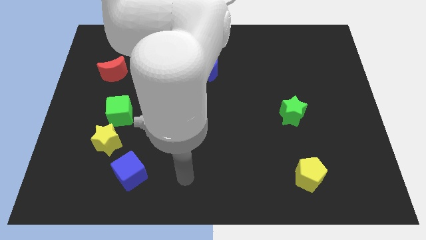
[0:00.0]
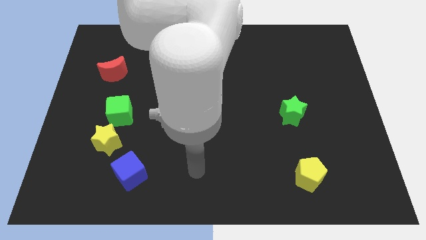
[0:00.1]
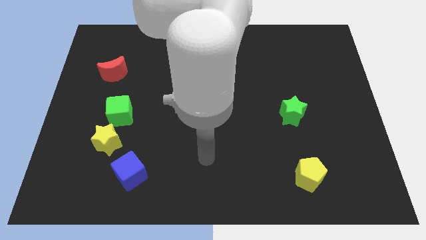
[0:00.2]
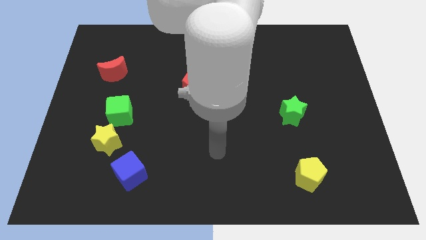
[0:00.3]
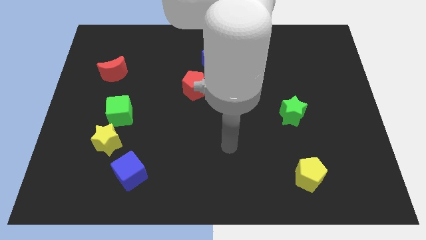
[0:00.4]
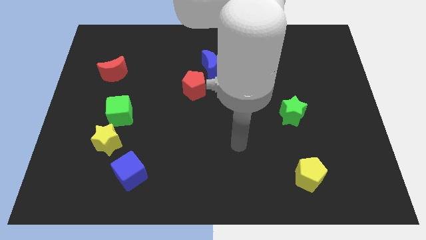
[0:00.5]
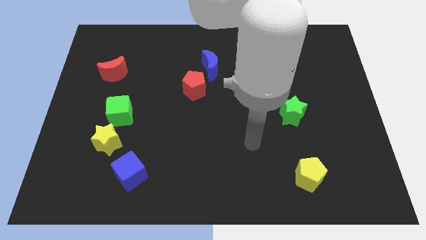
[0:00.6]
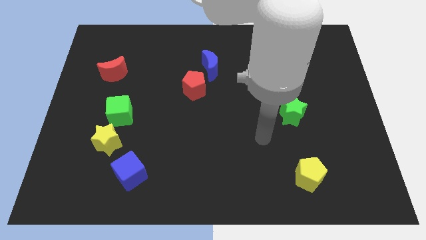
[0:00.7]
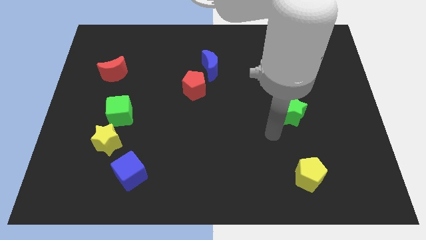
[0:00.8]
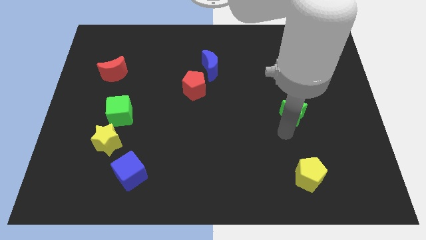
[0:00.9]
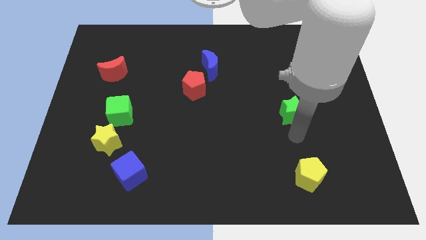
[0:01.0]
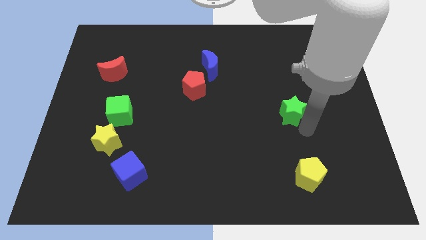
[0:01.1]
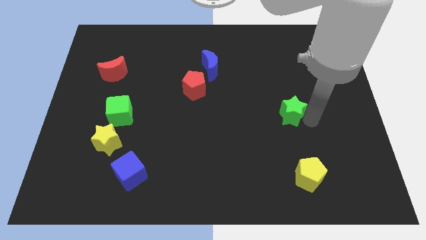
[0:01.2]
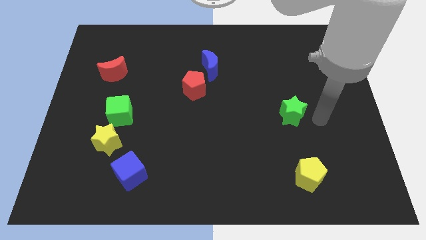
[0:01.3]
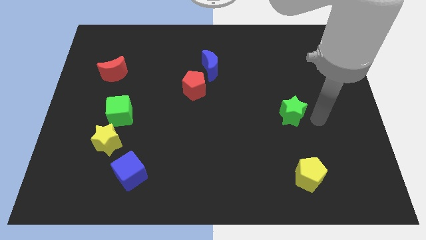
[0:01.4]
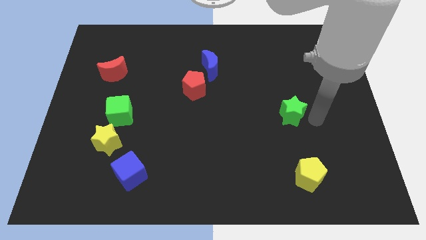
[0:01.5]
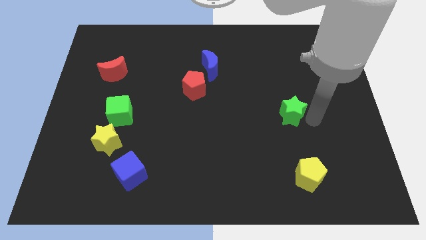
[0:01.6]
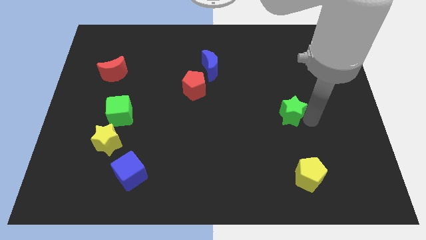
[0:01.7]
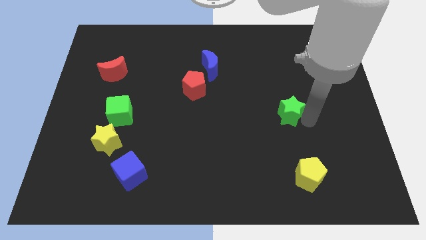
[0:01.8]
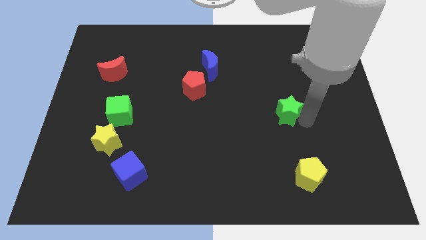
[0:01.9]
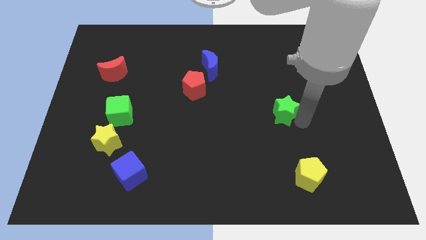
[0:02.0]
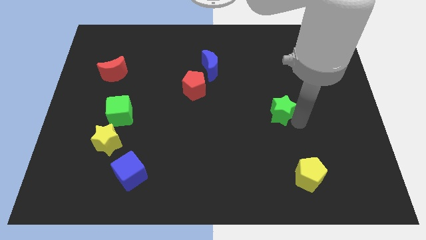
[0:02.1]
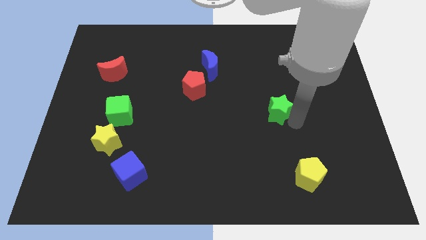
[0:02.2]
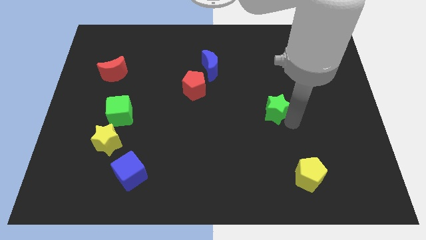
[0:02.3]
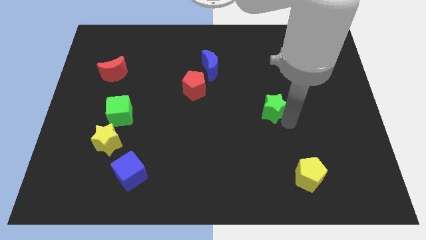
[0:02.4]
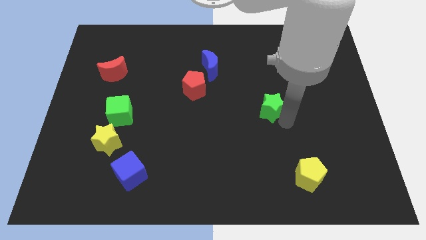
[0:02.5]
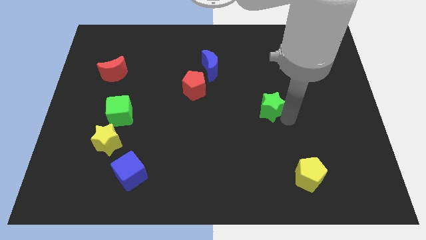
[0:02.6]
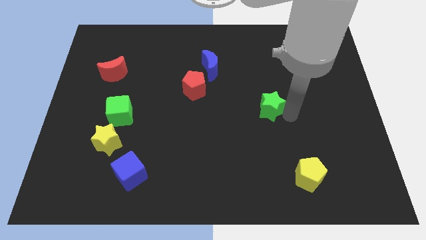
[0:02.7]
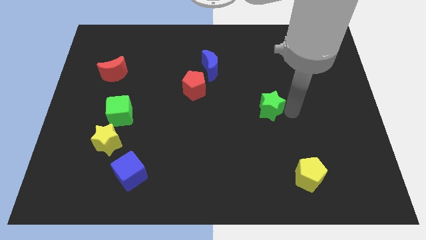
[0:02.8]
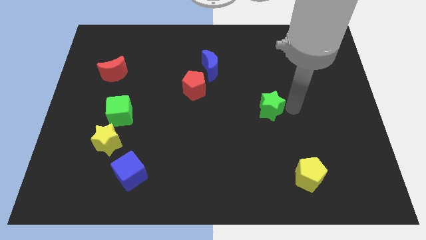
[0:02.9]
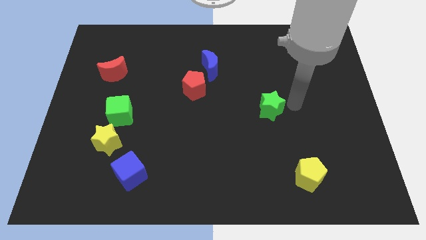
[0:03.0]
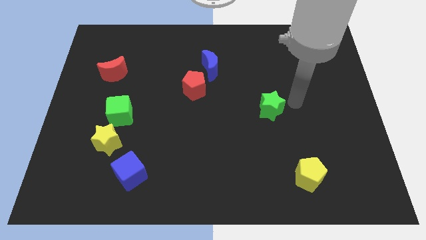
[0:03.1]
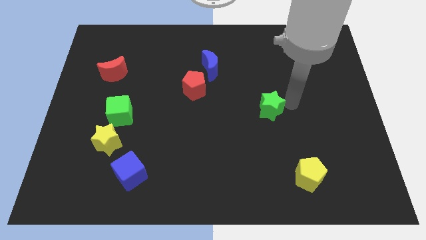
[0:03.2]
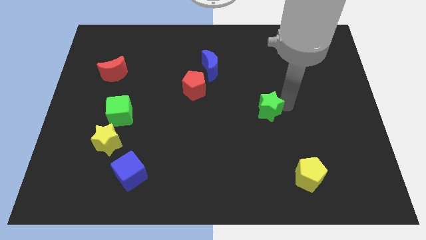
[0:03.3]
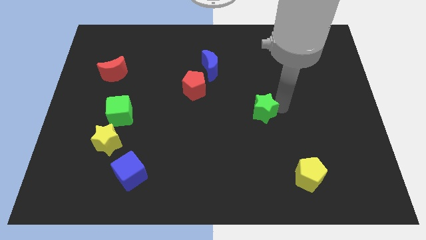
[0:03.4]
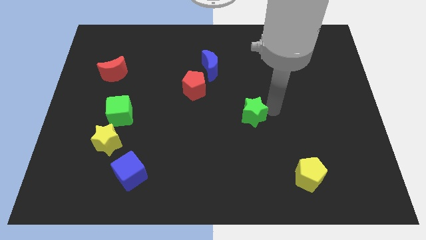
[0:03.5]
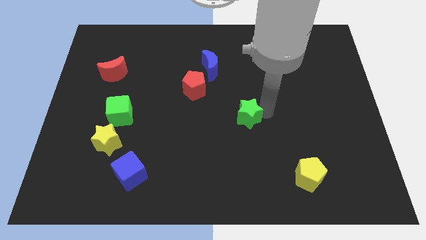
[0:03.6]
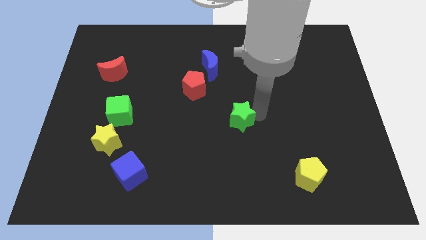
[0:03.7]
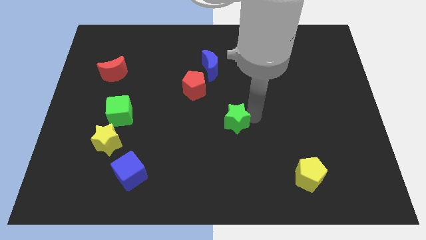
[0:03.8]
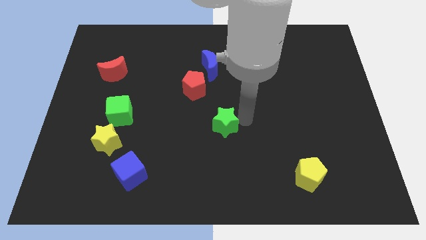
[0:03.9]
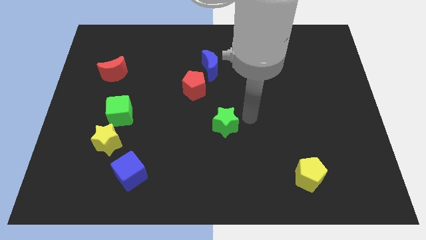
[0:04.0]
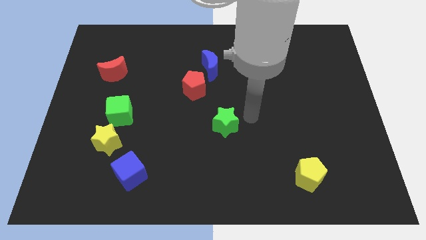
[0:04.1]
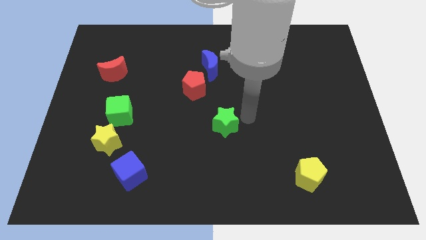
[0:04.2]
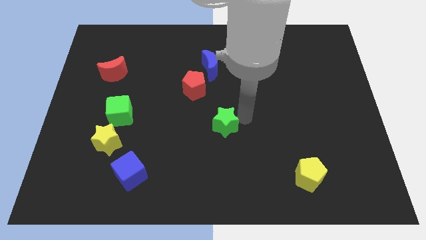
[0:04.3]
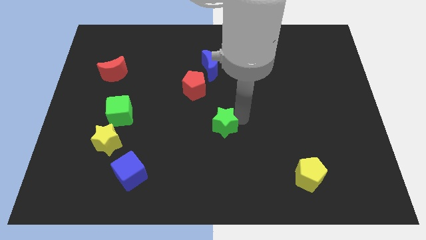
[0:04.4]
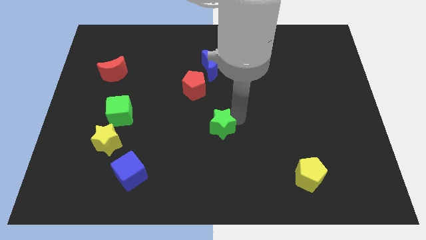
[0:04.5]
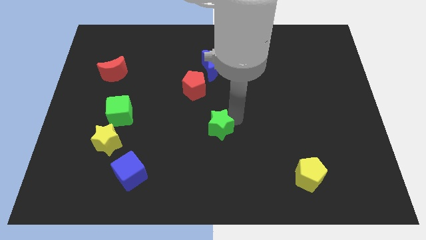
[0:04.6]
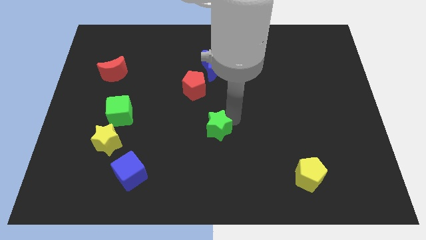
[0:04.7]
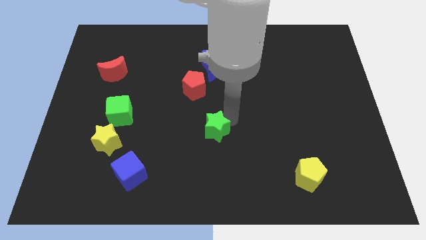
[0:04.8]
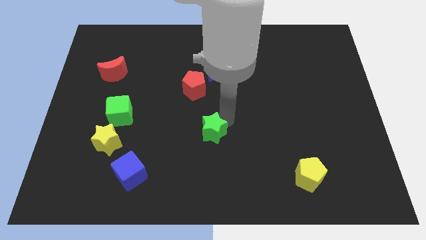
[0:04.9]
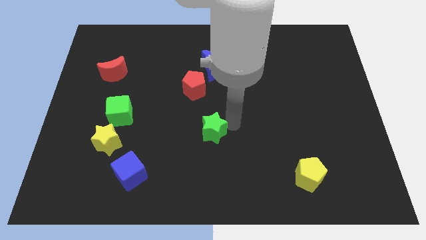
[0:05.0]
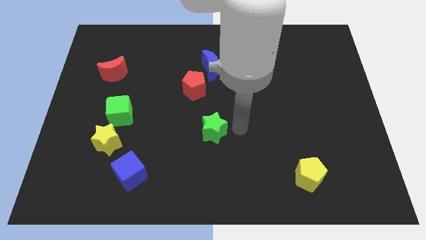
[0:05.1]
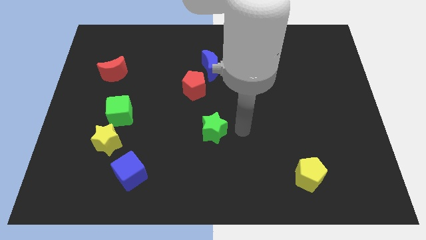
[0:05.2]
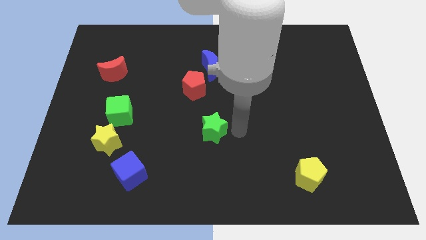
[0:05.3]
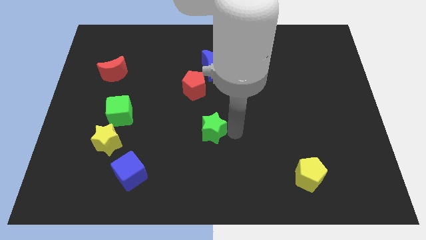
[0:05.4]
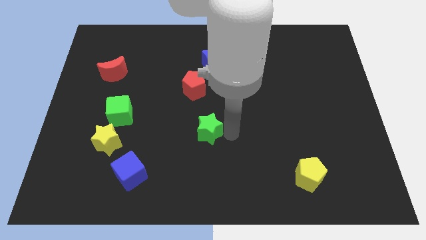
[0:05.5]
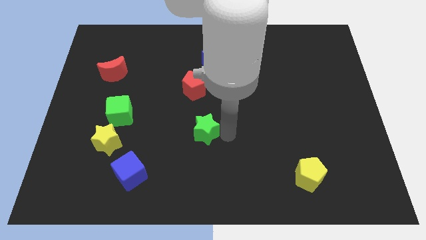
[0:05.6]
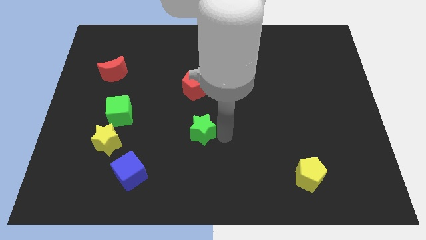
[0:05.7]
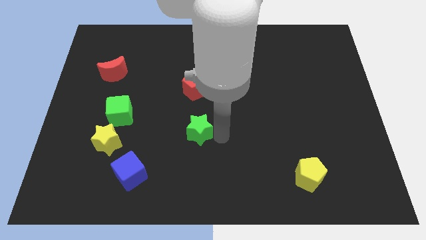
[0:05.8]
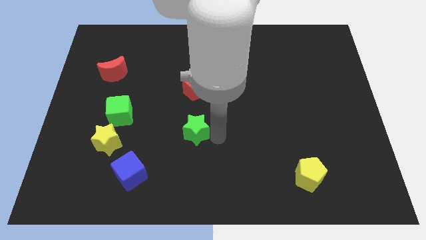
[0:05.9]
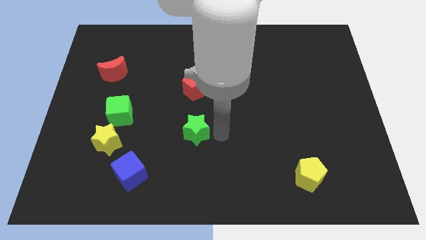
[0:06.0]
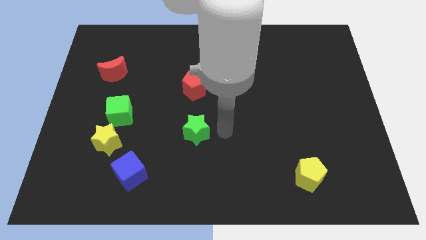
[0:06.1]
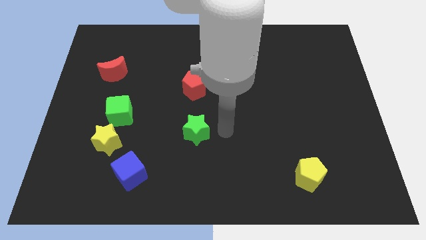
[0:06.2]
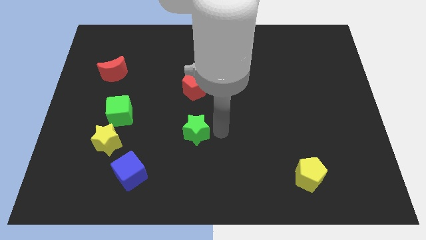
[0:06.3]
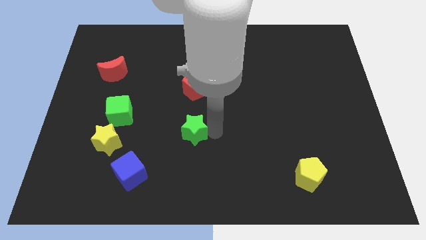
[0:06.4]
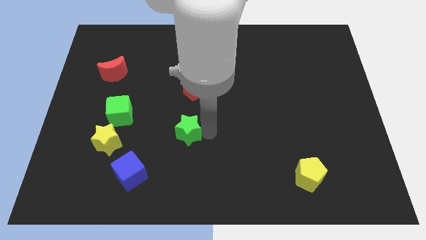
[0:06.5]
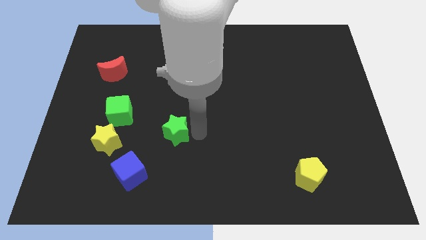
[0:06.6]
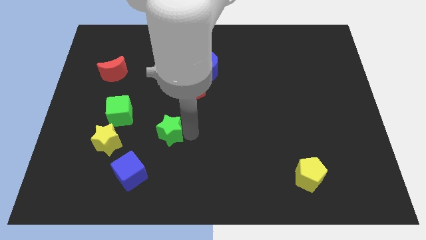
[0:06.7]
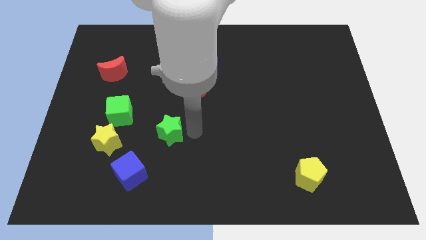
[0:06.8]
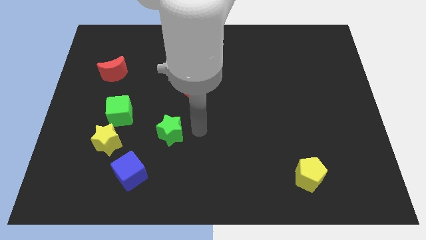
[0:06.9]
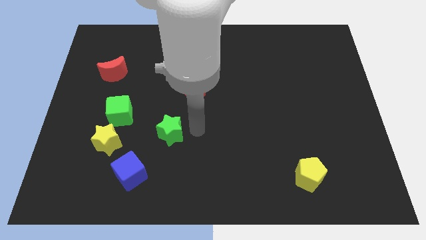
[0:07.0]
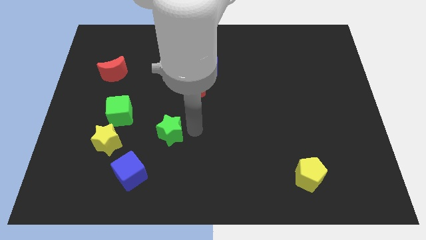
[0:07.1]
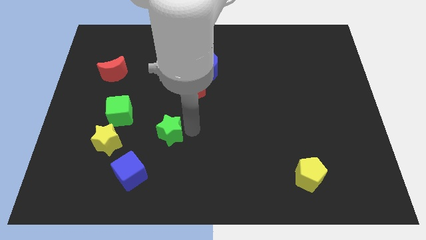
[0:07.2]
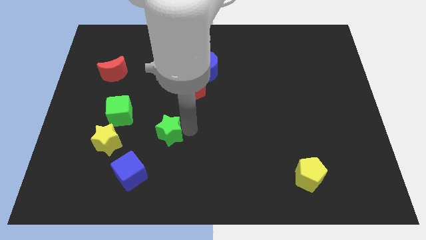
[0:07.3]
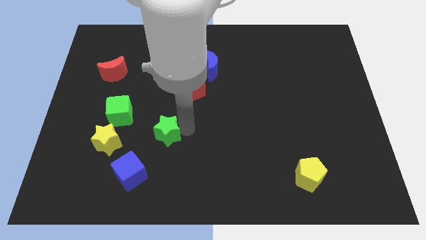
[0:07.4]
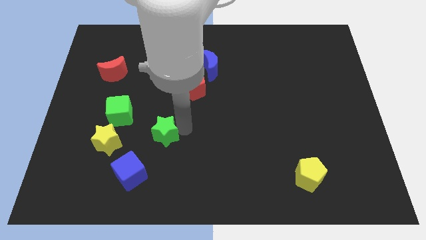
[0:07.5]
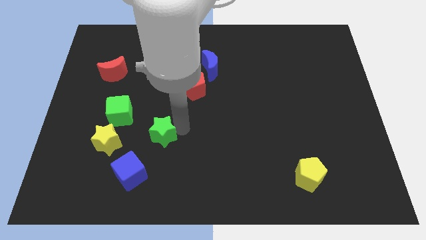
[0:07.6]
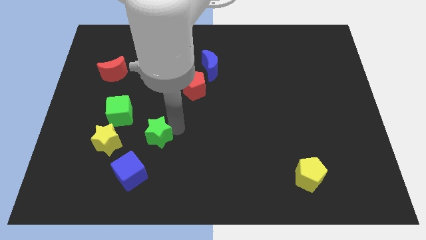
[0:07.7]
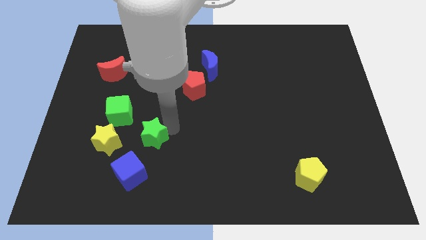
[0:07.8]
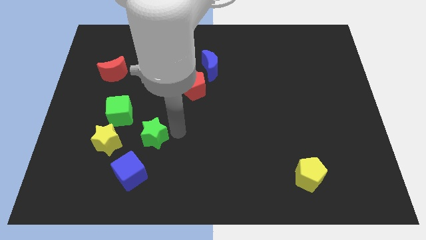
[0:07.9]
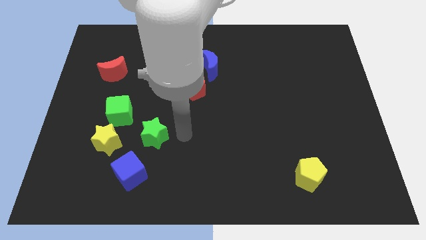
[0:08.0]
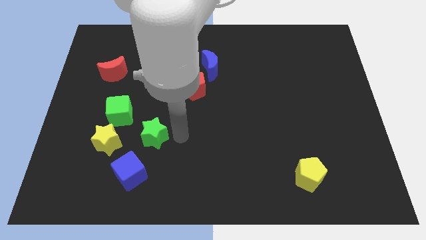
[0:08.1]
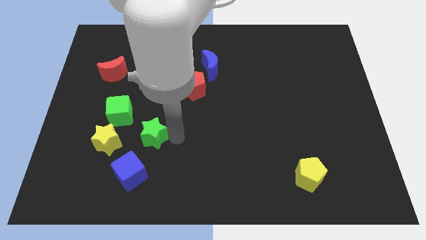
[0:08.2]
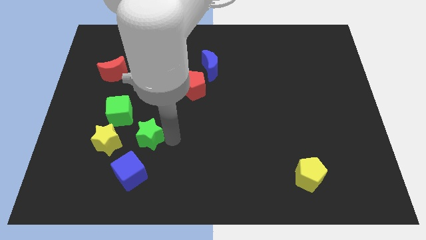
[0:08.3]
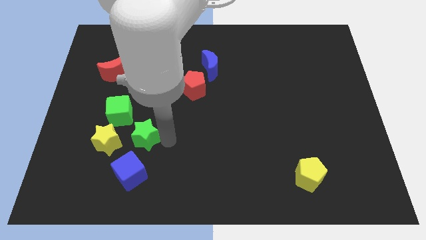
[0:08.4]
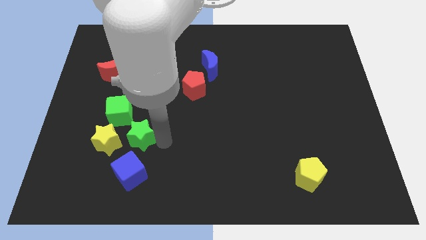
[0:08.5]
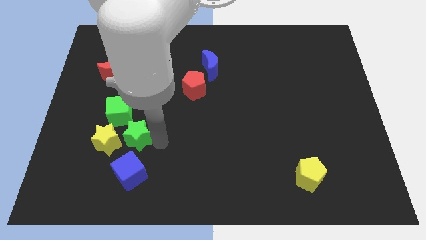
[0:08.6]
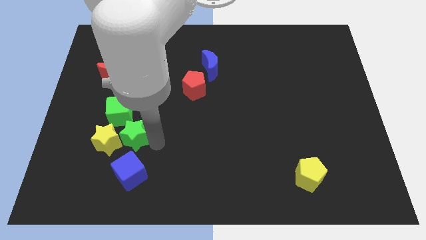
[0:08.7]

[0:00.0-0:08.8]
slide the green star next to the yellow star
